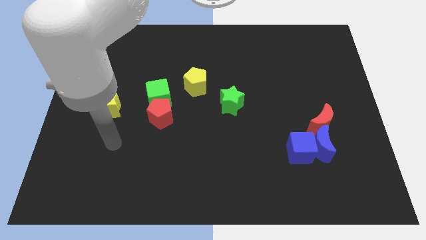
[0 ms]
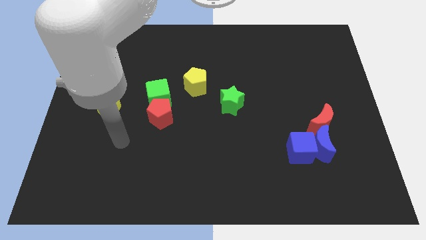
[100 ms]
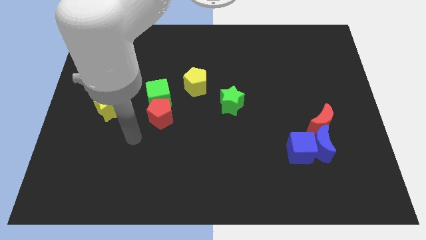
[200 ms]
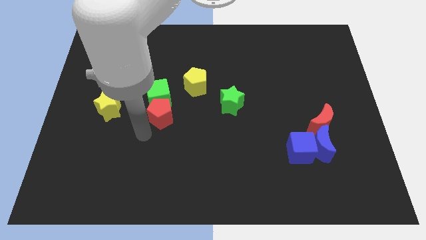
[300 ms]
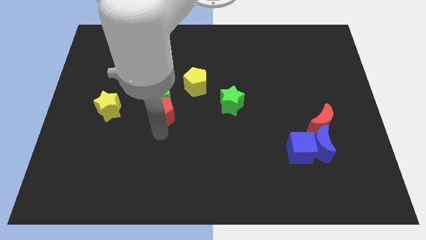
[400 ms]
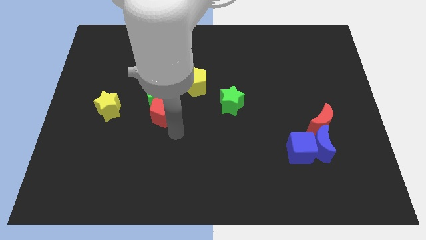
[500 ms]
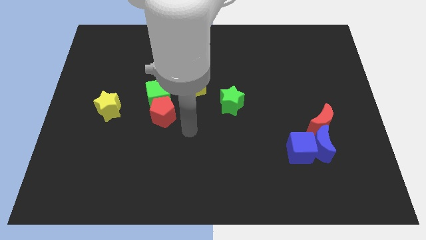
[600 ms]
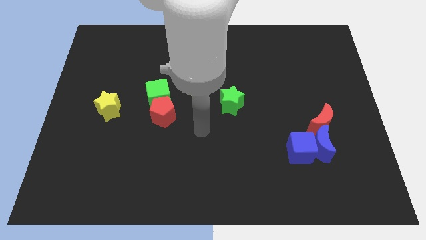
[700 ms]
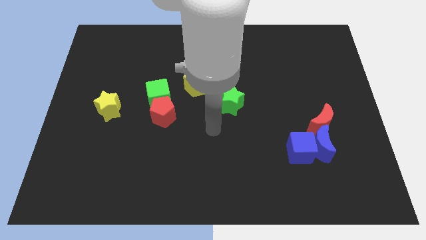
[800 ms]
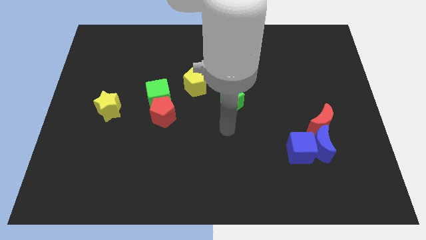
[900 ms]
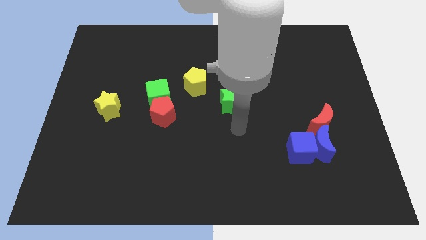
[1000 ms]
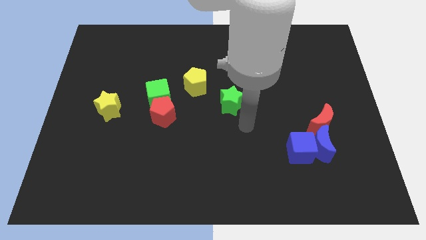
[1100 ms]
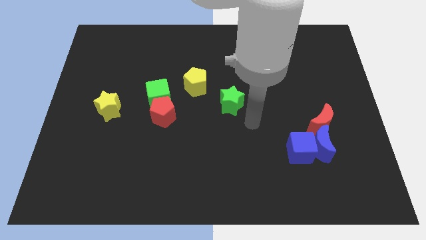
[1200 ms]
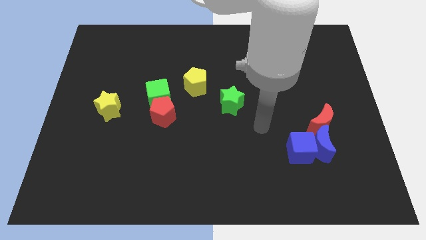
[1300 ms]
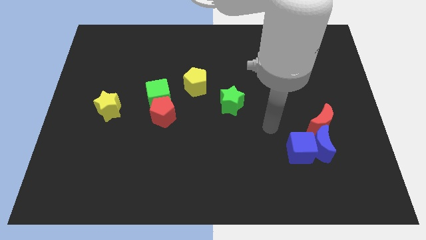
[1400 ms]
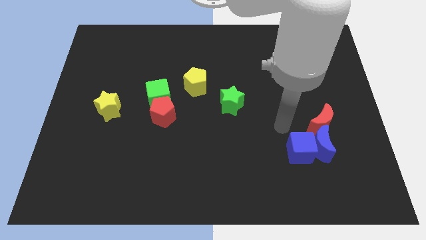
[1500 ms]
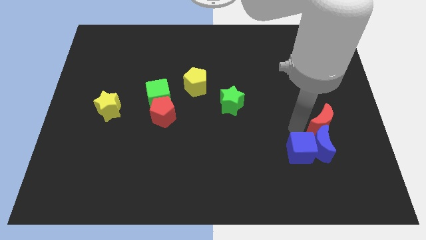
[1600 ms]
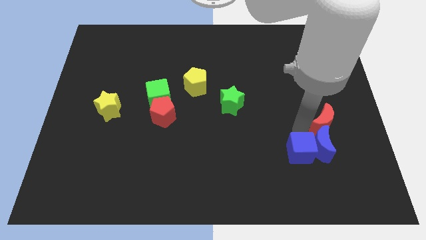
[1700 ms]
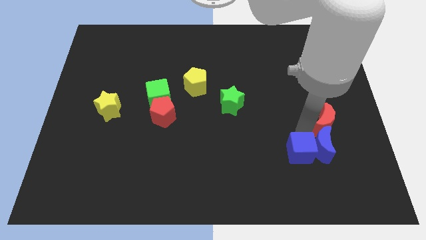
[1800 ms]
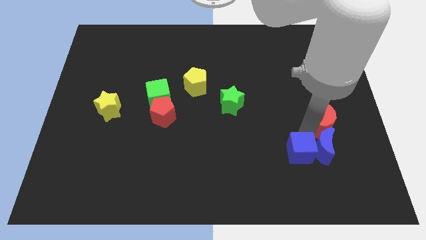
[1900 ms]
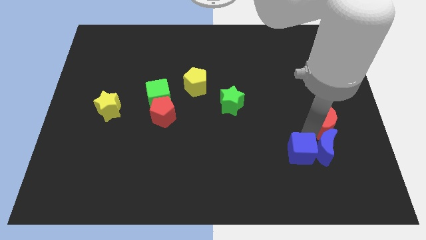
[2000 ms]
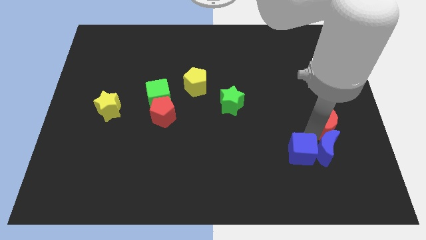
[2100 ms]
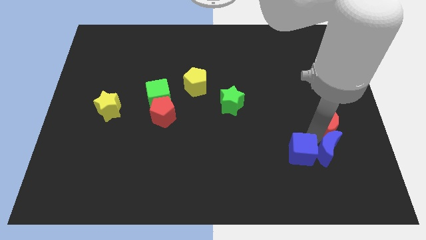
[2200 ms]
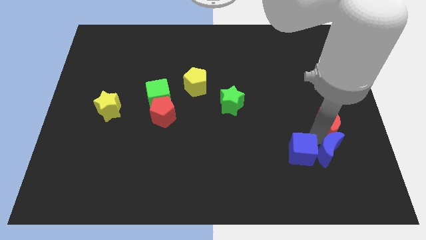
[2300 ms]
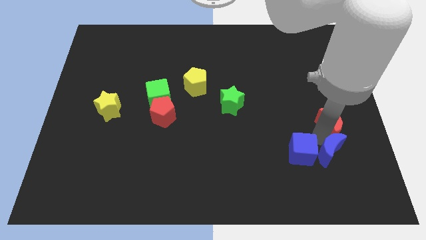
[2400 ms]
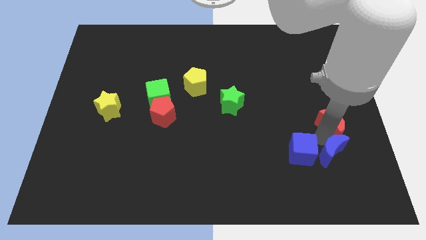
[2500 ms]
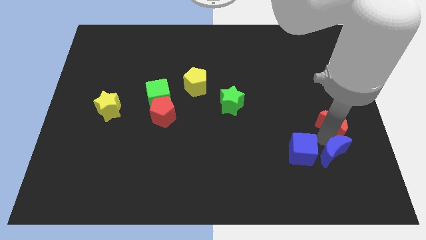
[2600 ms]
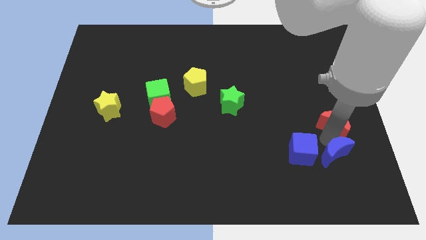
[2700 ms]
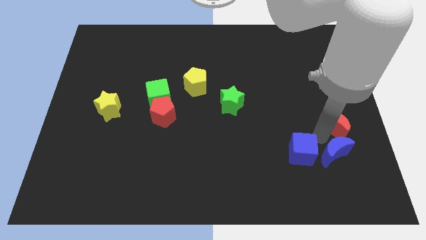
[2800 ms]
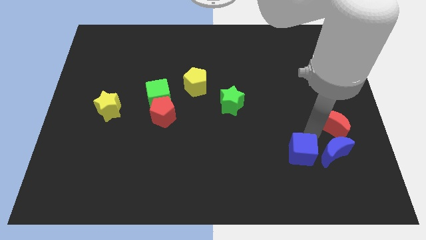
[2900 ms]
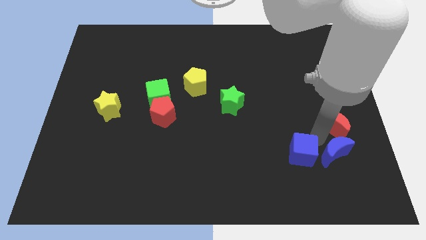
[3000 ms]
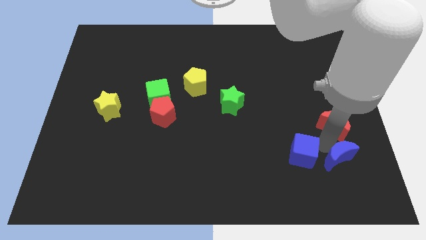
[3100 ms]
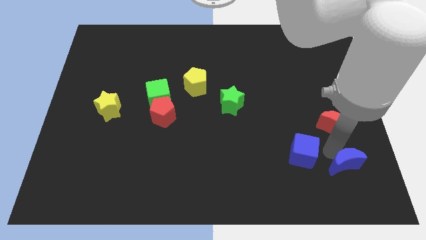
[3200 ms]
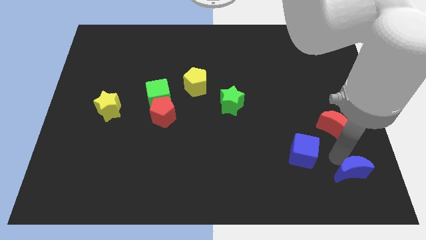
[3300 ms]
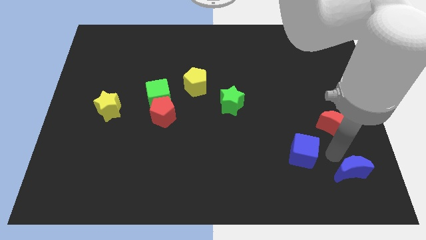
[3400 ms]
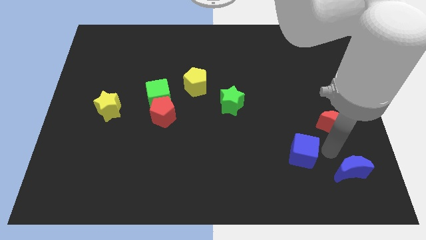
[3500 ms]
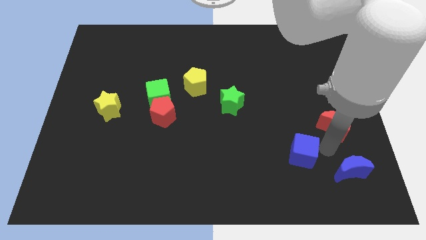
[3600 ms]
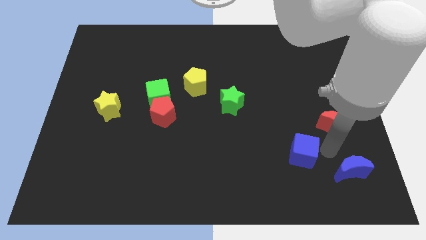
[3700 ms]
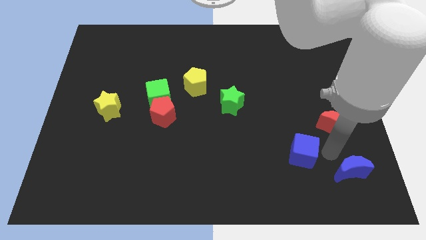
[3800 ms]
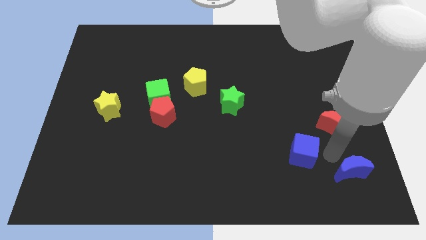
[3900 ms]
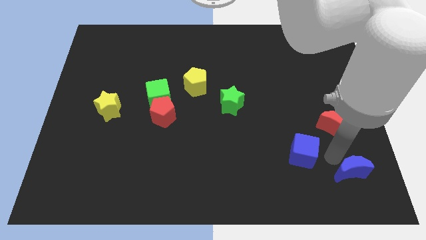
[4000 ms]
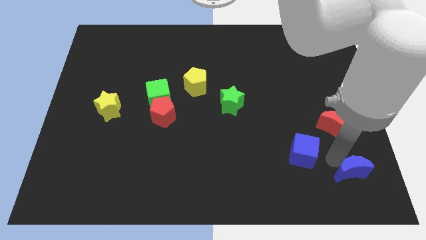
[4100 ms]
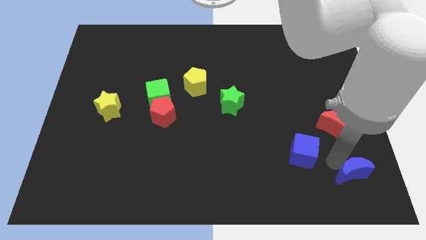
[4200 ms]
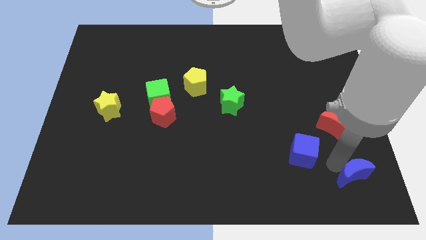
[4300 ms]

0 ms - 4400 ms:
pull the blue moon apart from the blue cube and red moon

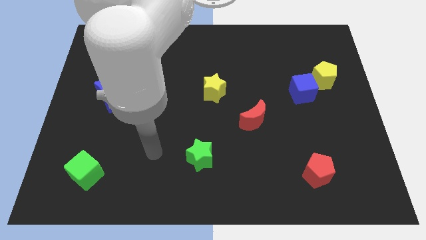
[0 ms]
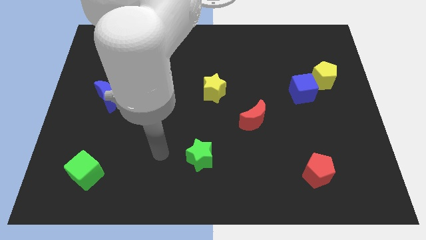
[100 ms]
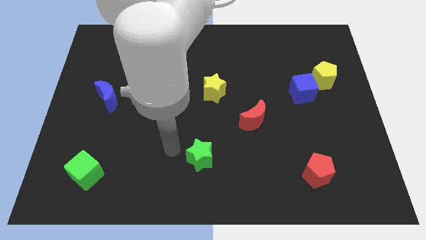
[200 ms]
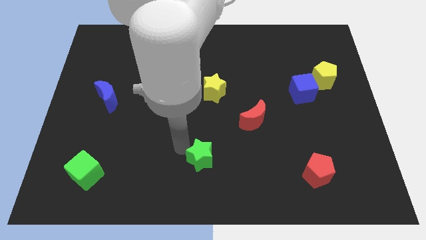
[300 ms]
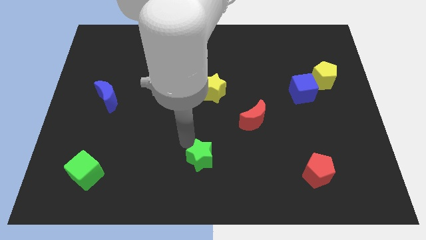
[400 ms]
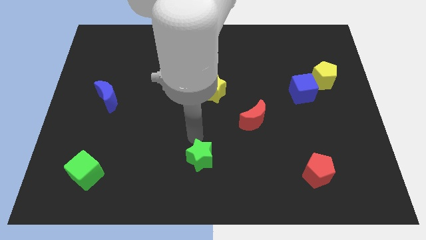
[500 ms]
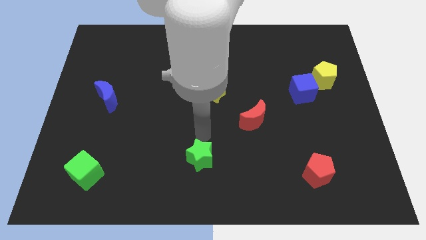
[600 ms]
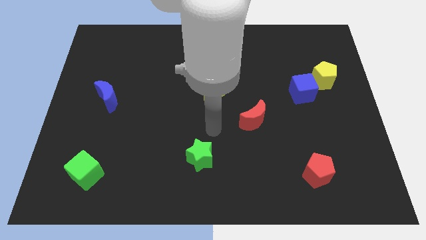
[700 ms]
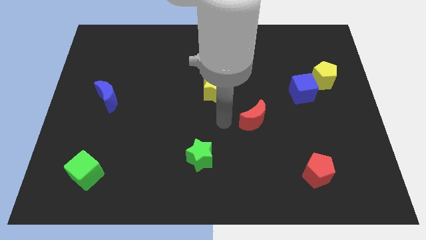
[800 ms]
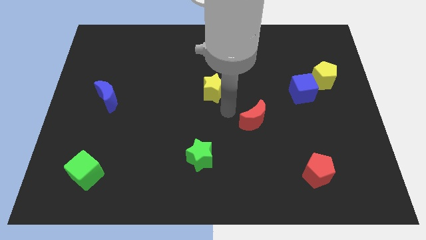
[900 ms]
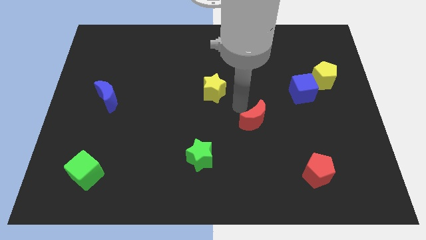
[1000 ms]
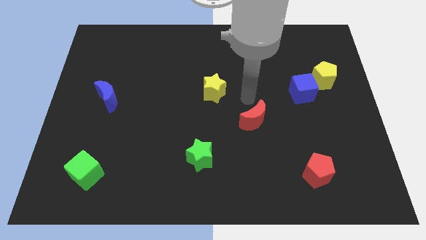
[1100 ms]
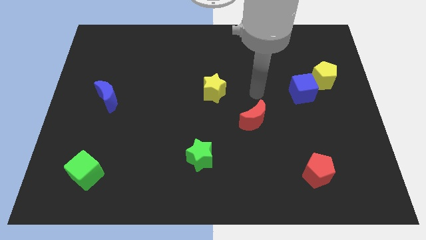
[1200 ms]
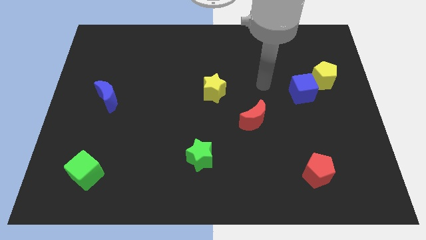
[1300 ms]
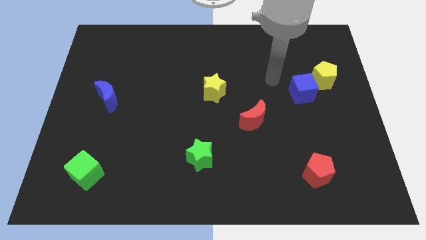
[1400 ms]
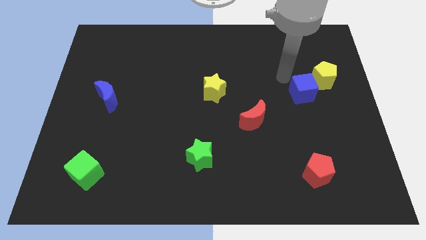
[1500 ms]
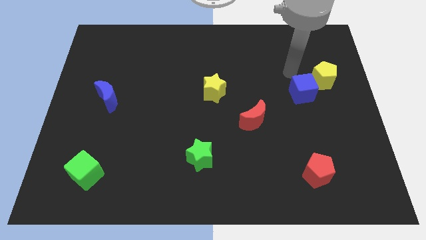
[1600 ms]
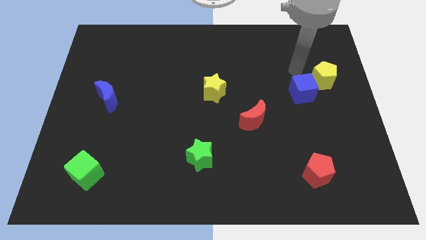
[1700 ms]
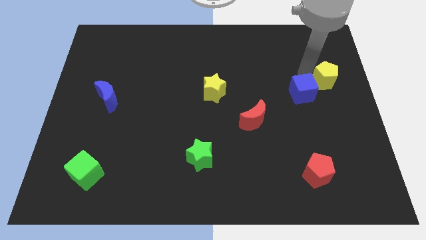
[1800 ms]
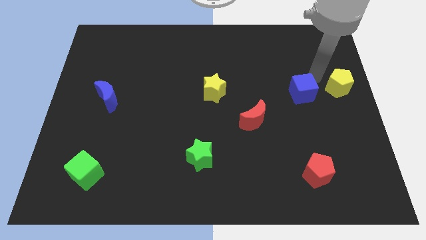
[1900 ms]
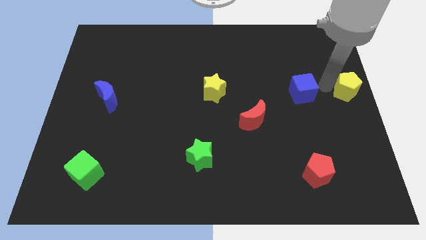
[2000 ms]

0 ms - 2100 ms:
move the blue cube away from the yellow pentagon

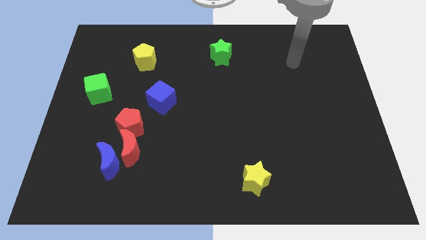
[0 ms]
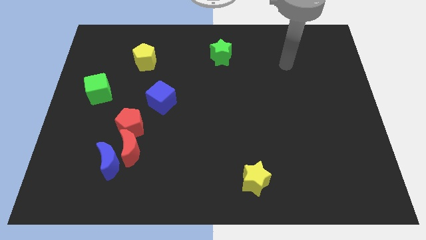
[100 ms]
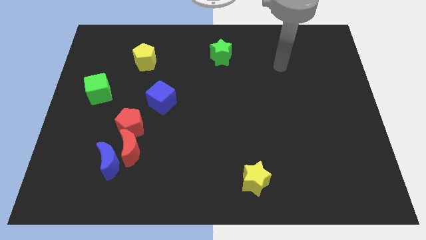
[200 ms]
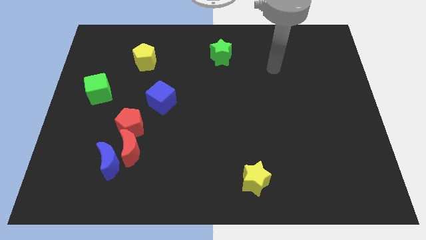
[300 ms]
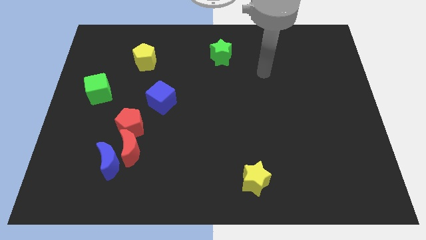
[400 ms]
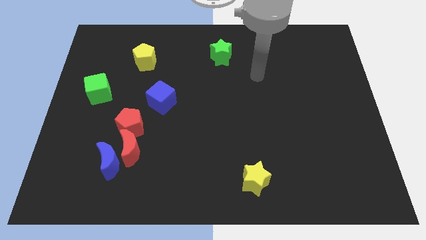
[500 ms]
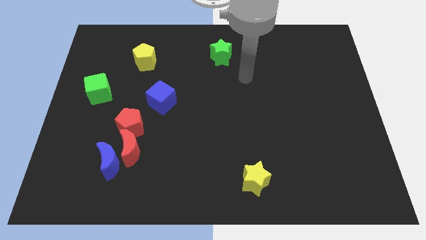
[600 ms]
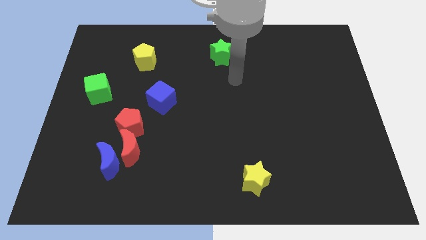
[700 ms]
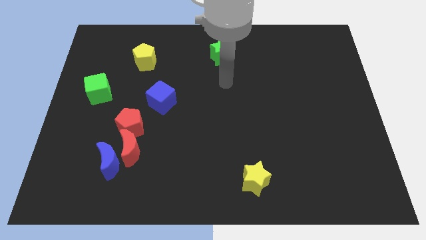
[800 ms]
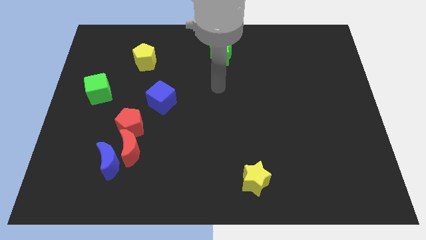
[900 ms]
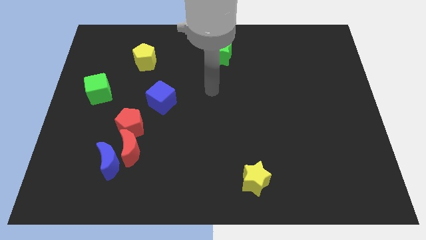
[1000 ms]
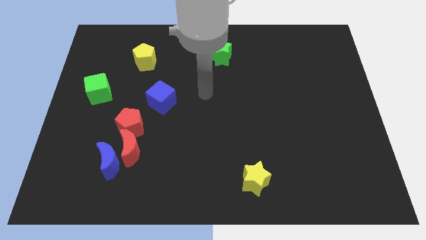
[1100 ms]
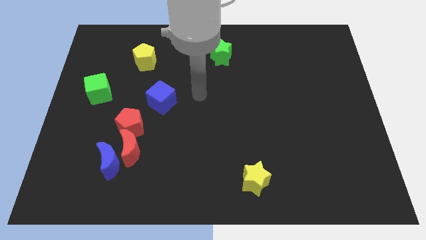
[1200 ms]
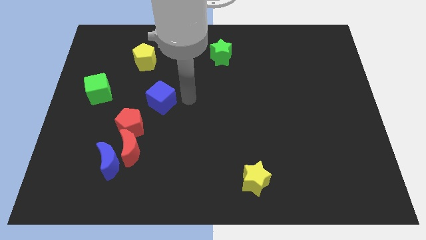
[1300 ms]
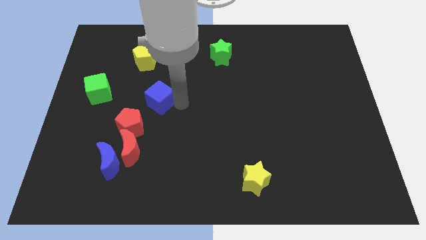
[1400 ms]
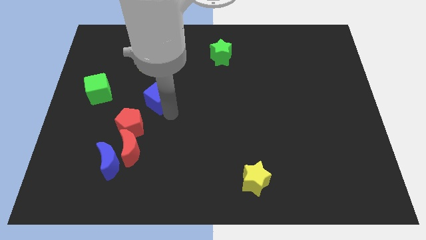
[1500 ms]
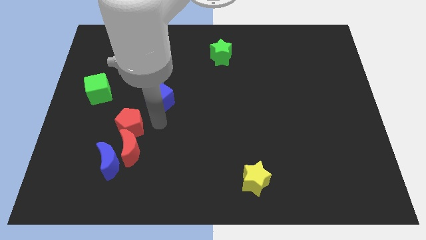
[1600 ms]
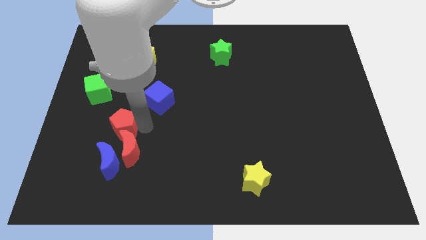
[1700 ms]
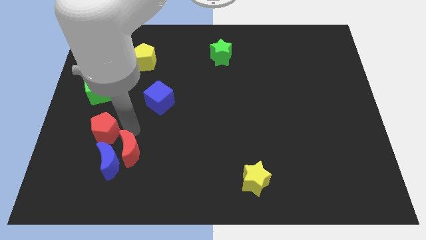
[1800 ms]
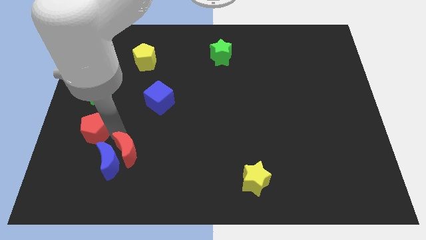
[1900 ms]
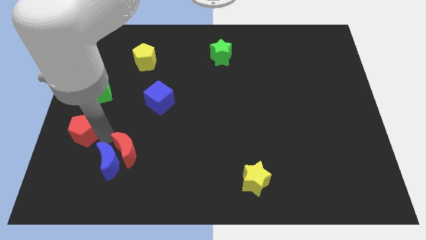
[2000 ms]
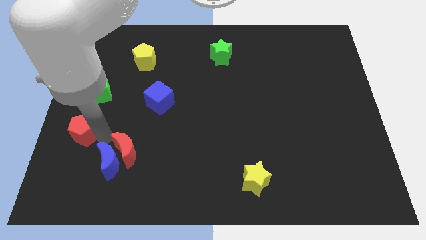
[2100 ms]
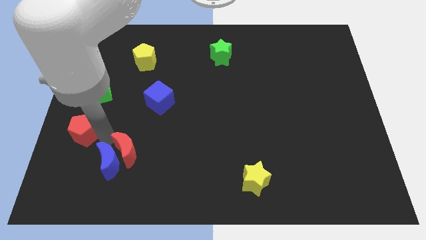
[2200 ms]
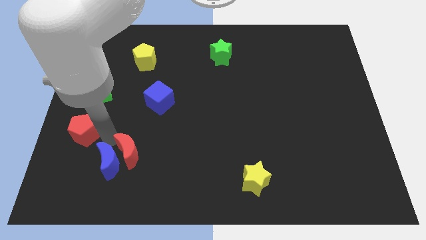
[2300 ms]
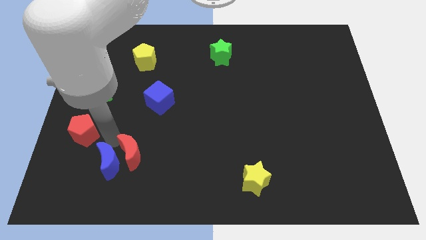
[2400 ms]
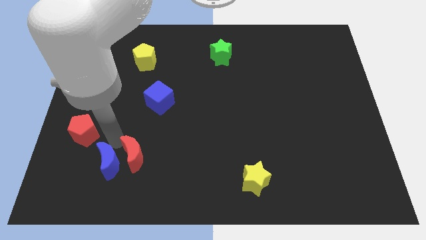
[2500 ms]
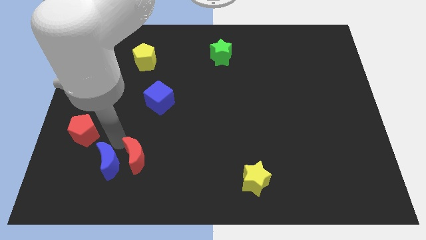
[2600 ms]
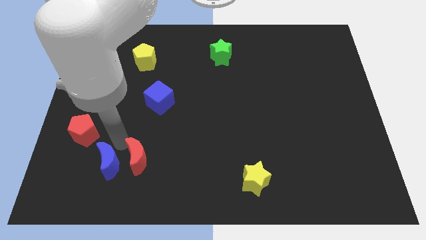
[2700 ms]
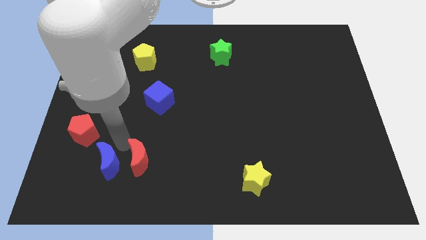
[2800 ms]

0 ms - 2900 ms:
separate the red moon from the blue moon and red pentagon
